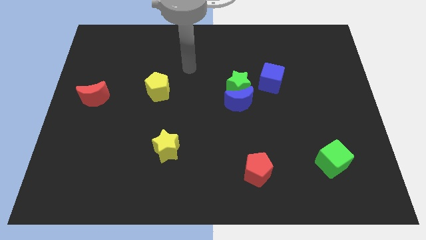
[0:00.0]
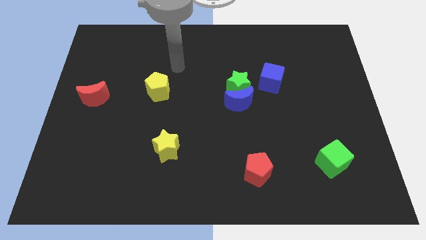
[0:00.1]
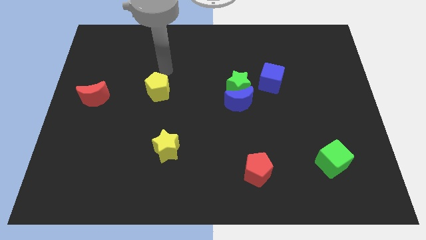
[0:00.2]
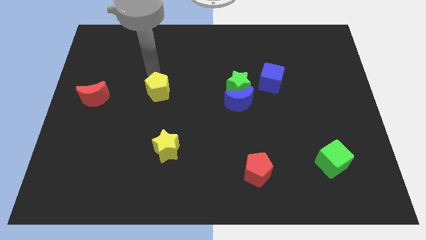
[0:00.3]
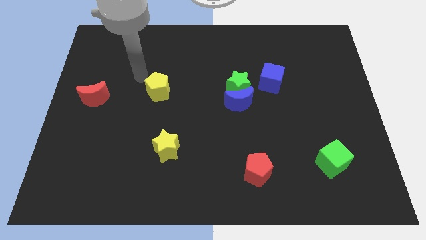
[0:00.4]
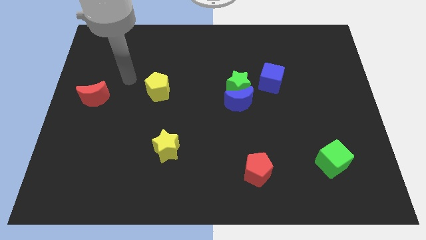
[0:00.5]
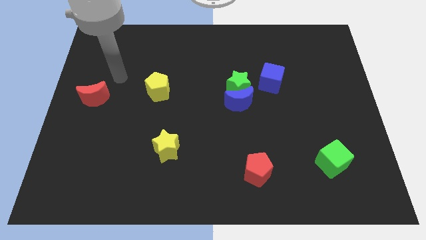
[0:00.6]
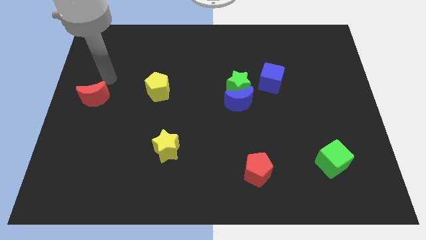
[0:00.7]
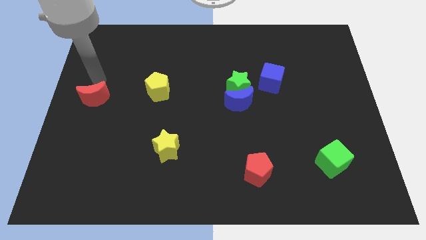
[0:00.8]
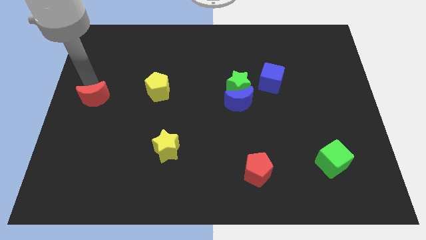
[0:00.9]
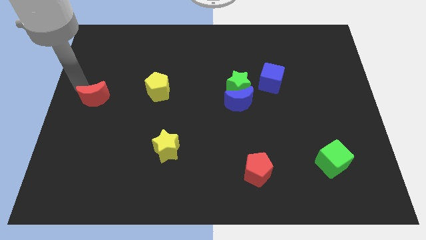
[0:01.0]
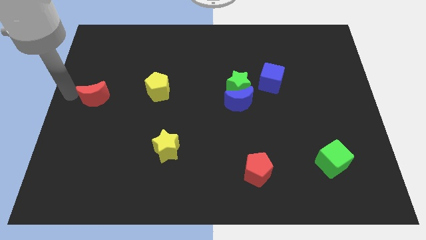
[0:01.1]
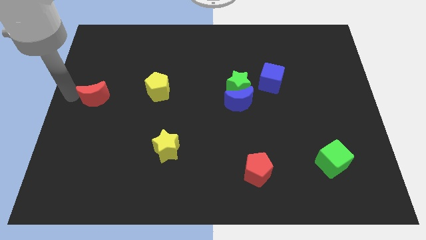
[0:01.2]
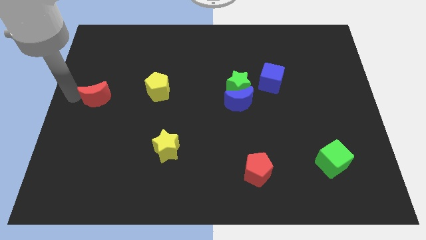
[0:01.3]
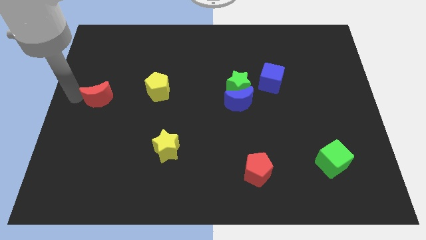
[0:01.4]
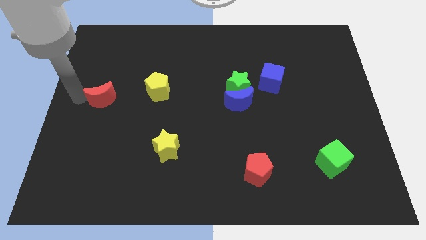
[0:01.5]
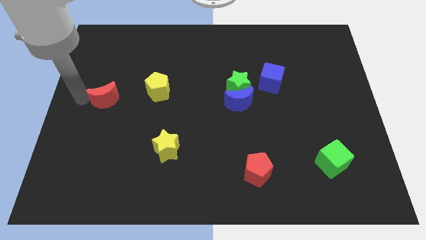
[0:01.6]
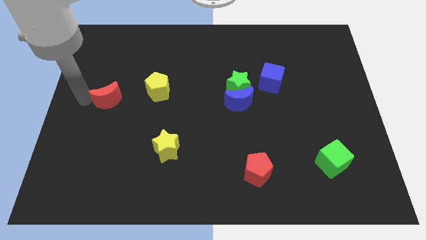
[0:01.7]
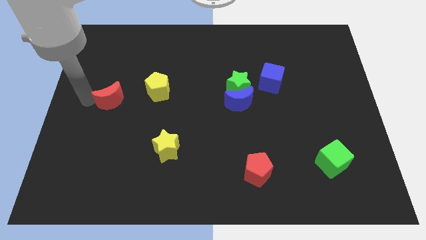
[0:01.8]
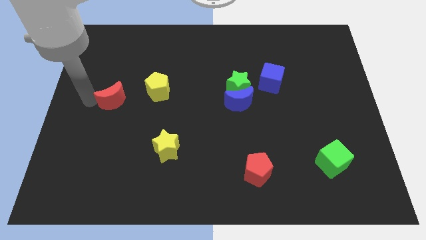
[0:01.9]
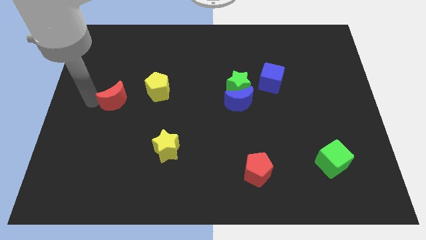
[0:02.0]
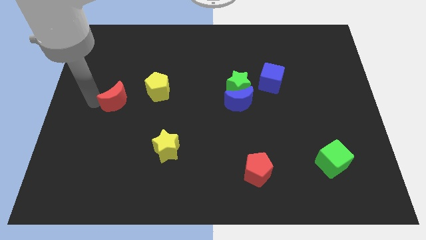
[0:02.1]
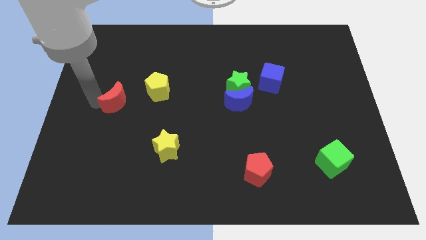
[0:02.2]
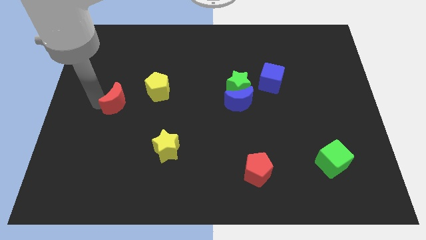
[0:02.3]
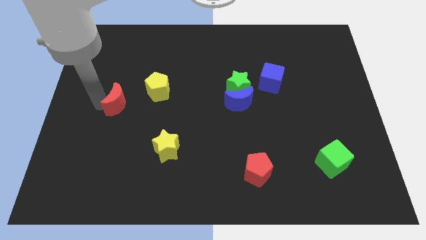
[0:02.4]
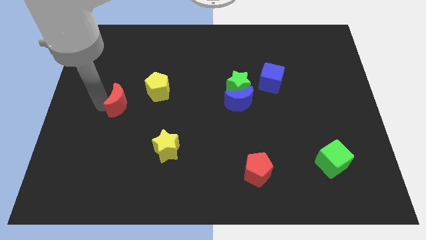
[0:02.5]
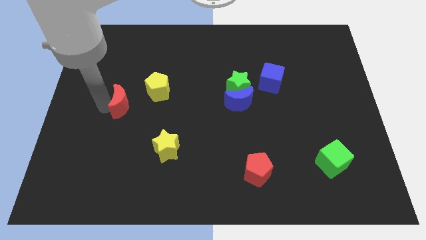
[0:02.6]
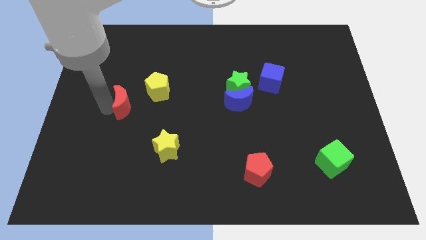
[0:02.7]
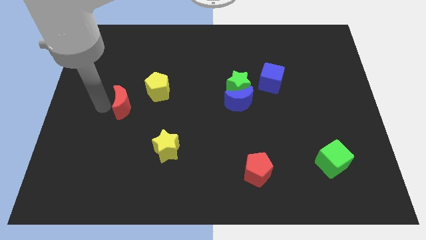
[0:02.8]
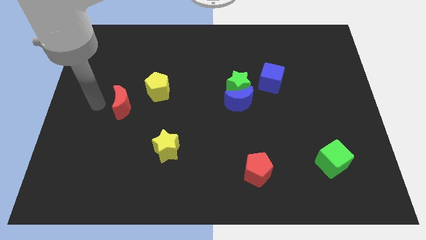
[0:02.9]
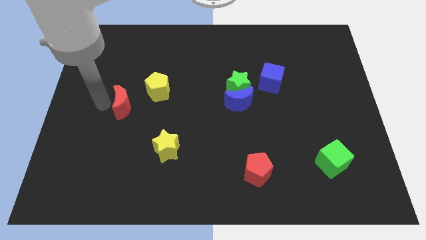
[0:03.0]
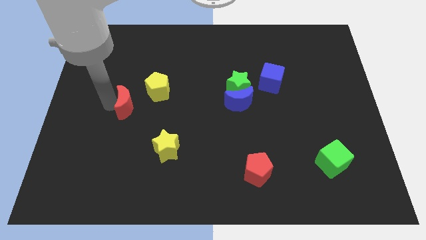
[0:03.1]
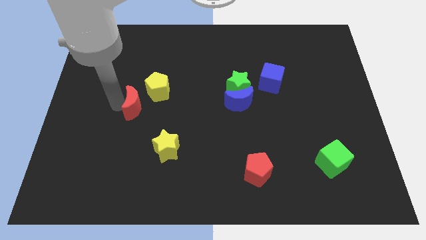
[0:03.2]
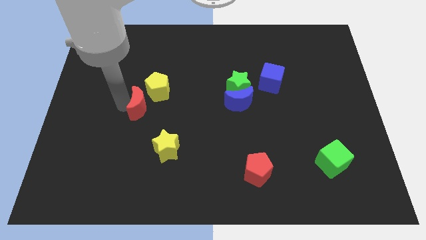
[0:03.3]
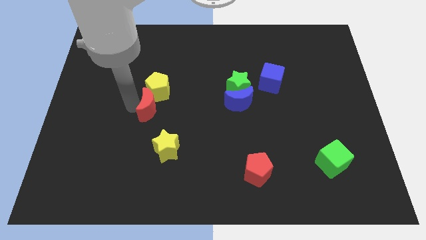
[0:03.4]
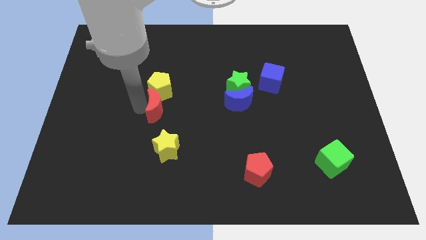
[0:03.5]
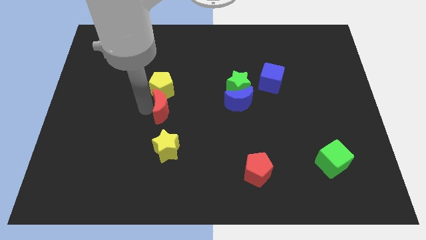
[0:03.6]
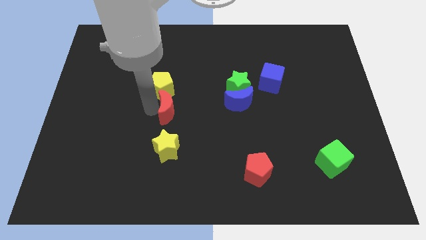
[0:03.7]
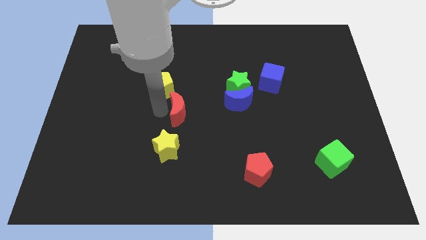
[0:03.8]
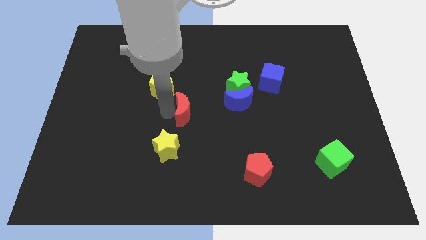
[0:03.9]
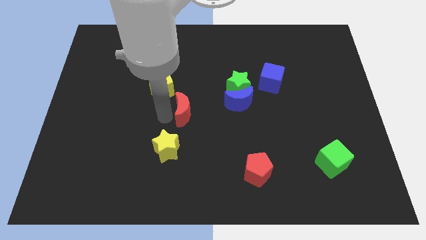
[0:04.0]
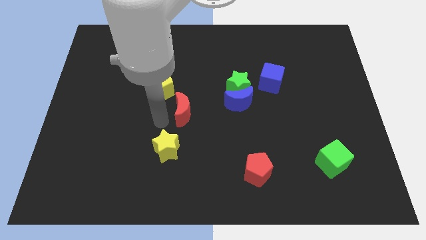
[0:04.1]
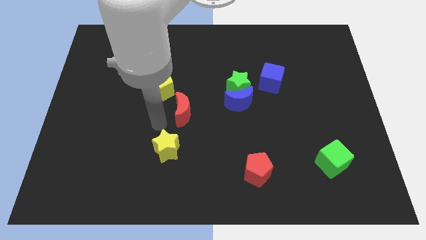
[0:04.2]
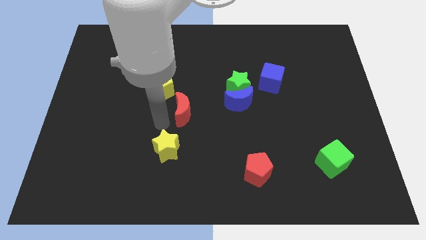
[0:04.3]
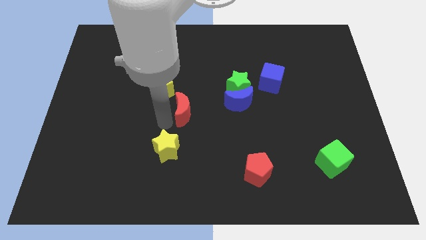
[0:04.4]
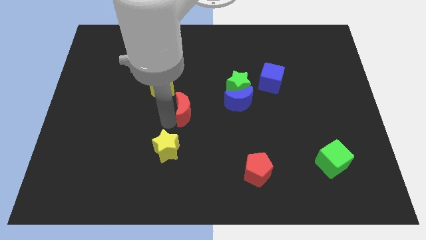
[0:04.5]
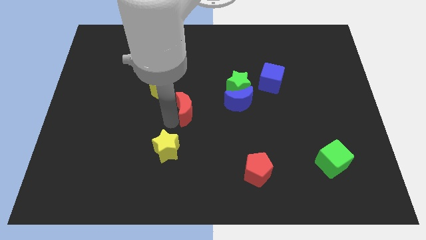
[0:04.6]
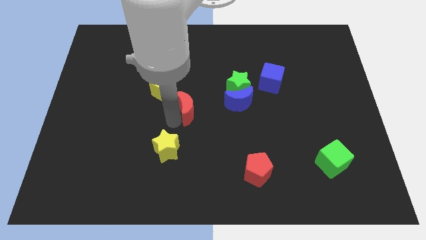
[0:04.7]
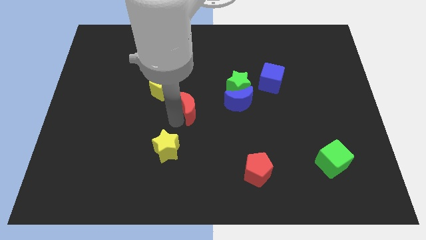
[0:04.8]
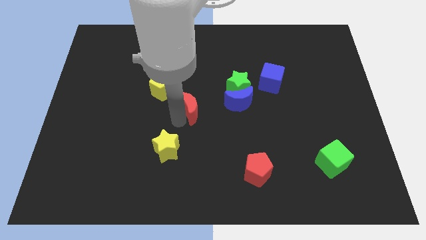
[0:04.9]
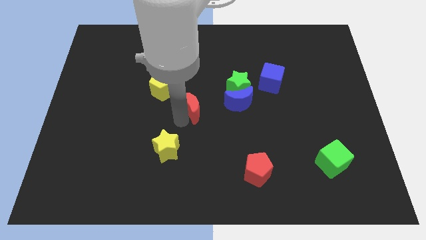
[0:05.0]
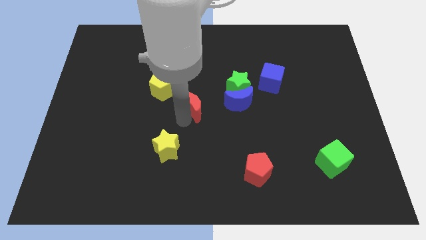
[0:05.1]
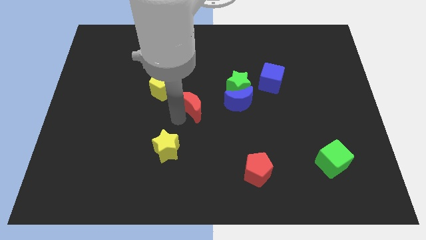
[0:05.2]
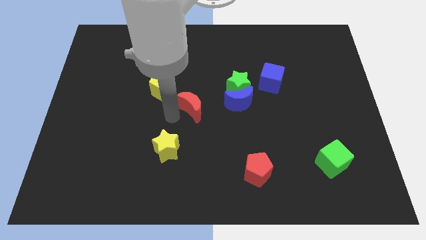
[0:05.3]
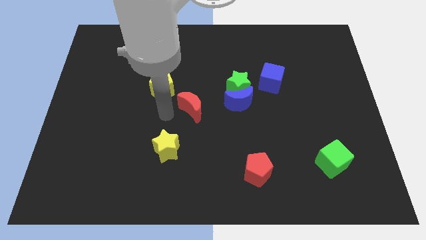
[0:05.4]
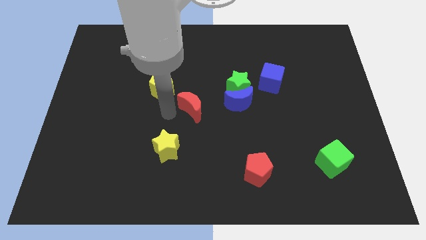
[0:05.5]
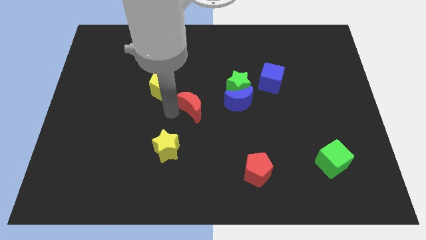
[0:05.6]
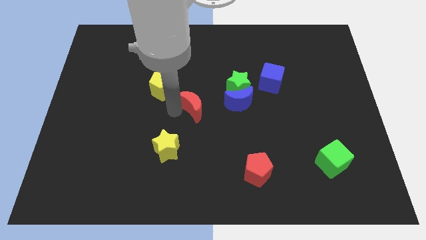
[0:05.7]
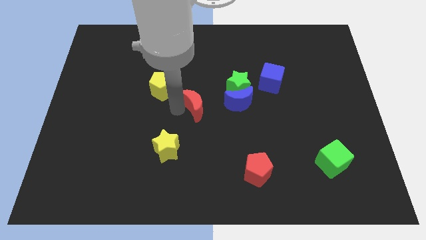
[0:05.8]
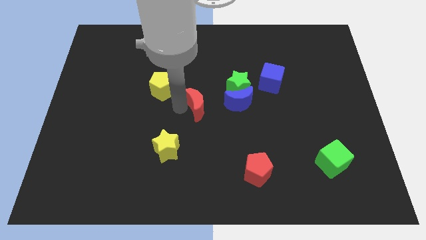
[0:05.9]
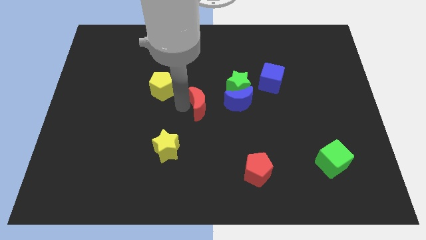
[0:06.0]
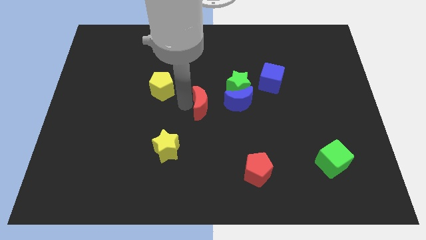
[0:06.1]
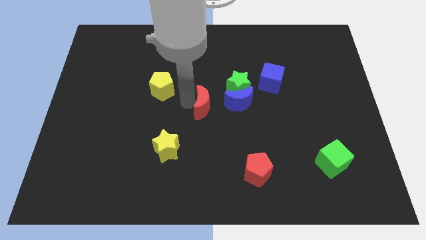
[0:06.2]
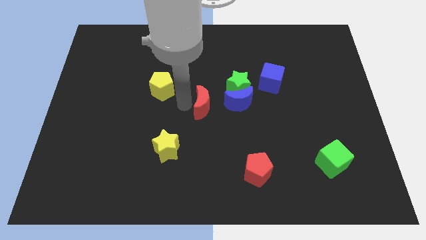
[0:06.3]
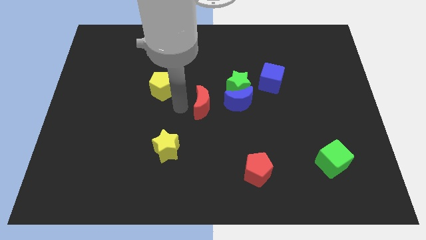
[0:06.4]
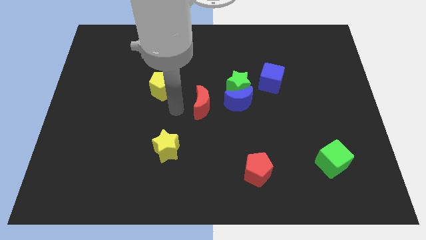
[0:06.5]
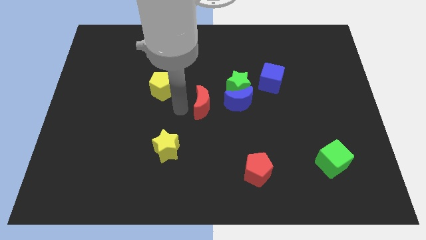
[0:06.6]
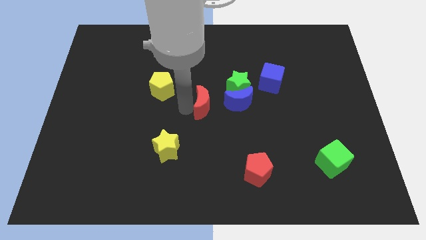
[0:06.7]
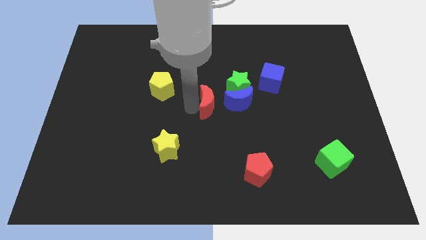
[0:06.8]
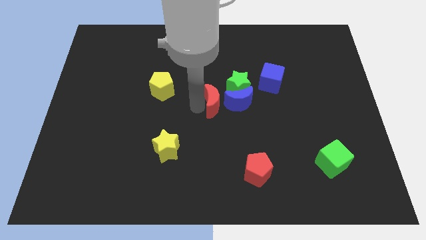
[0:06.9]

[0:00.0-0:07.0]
slide the red moon close to the blue moon
